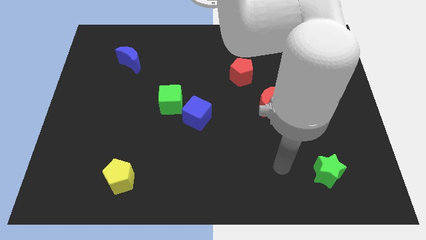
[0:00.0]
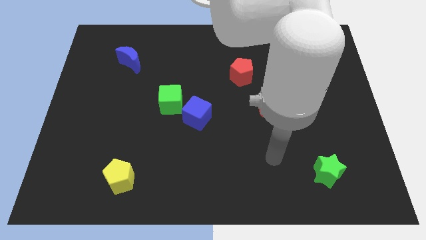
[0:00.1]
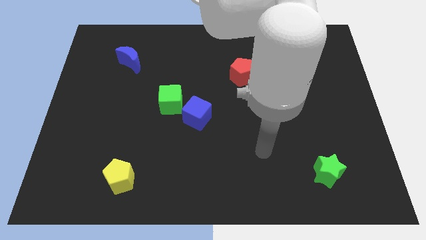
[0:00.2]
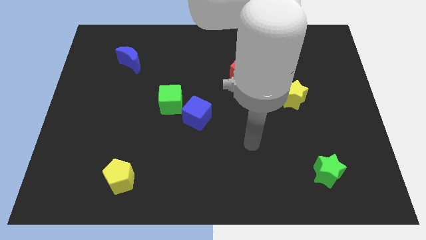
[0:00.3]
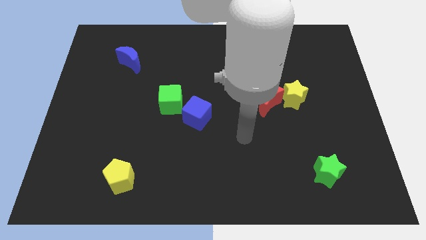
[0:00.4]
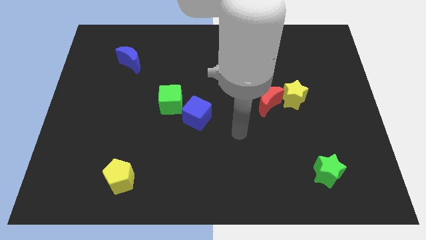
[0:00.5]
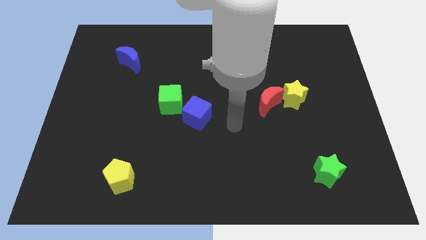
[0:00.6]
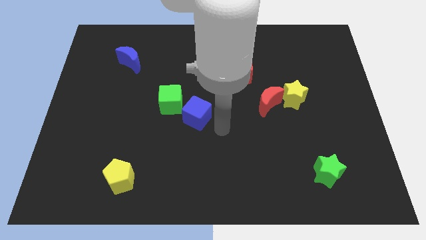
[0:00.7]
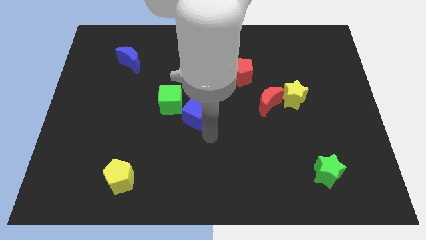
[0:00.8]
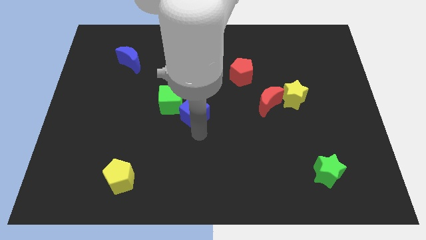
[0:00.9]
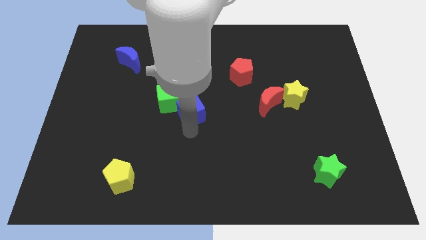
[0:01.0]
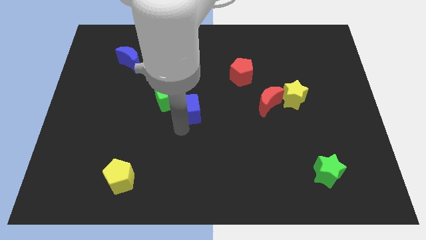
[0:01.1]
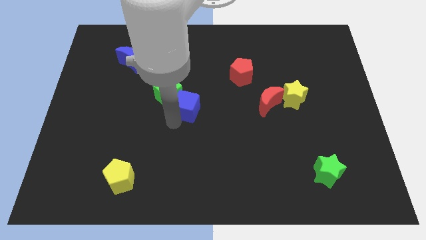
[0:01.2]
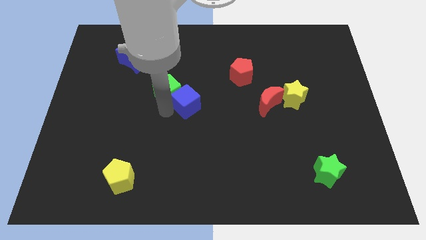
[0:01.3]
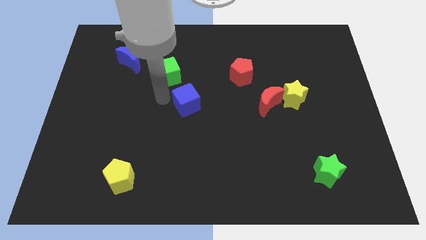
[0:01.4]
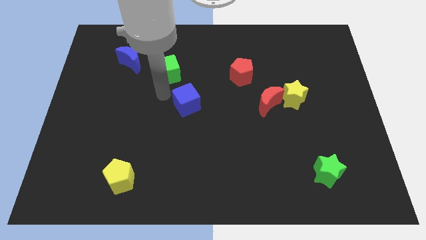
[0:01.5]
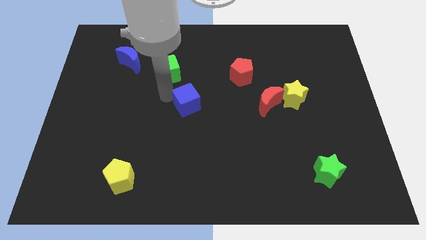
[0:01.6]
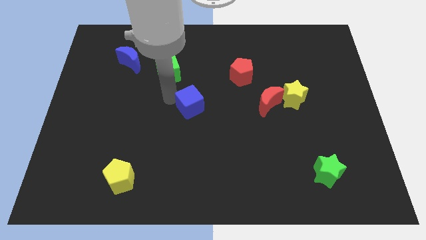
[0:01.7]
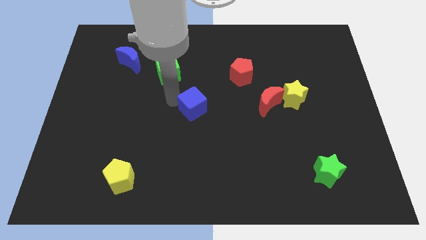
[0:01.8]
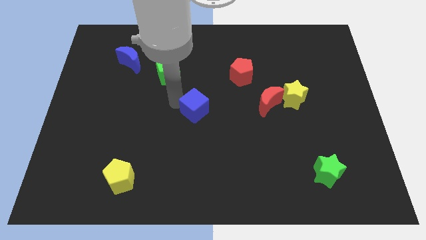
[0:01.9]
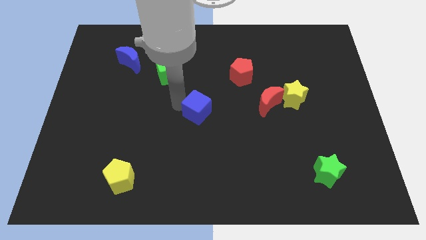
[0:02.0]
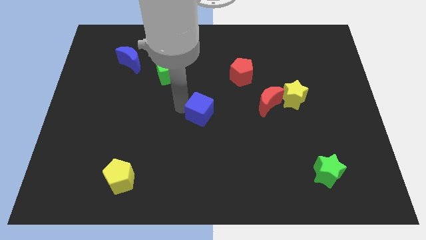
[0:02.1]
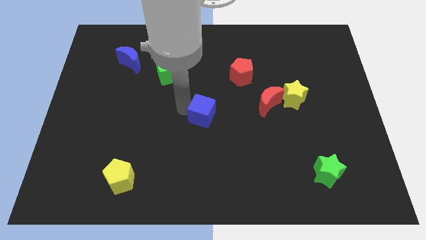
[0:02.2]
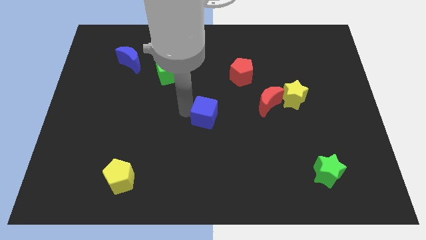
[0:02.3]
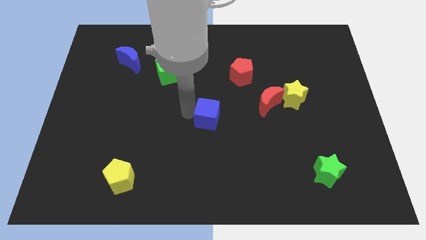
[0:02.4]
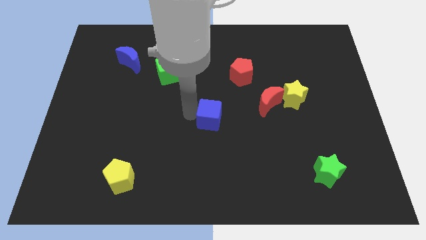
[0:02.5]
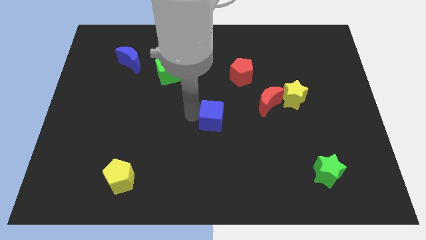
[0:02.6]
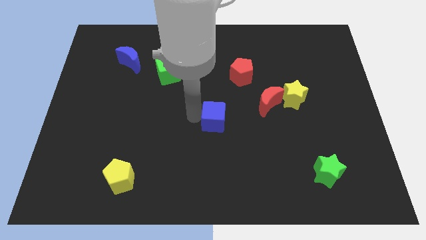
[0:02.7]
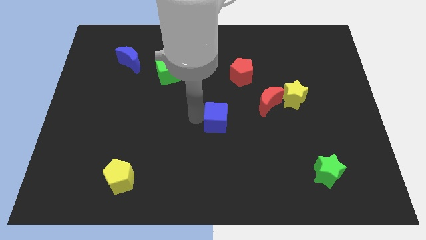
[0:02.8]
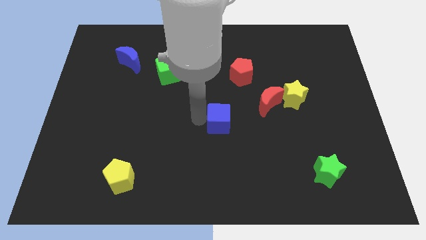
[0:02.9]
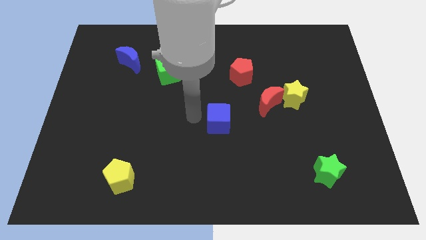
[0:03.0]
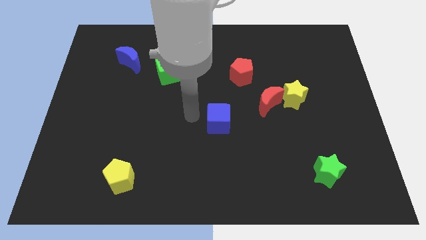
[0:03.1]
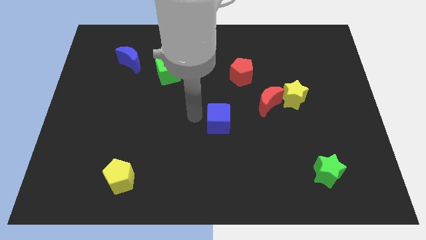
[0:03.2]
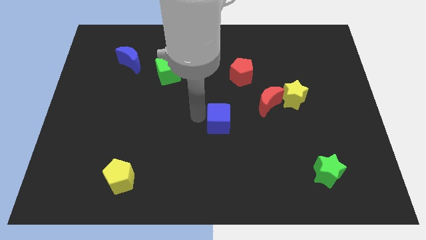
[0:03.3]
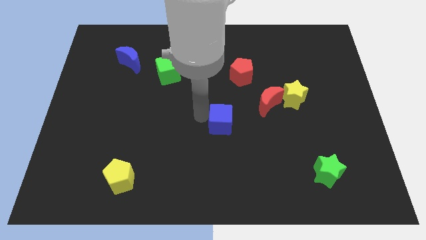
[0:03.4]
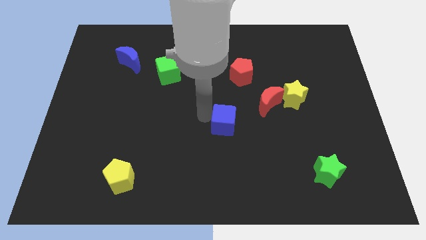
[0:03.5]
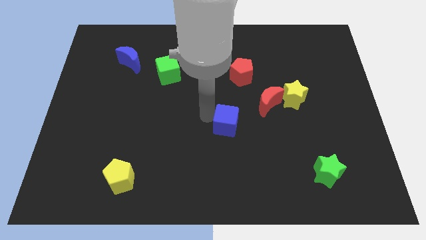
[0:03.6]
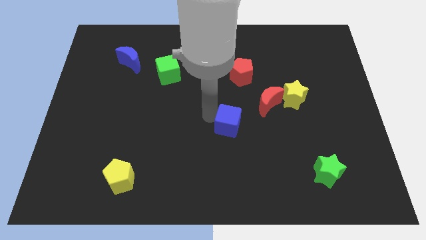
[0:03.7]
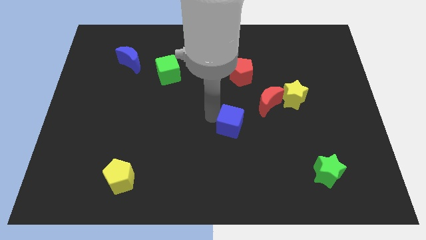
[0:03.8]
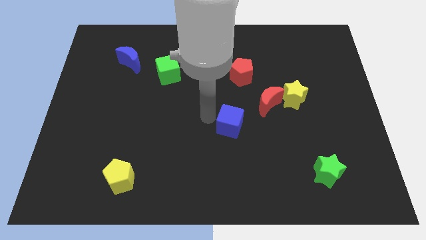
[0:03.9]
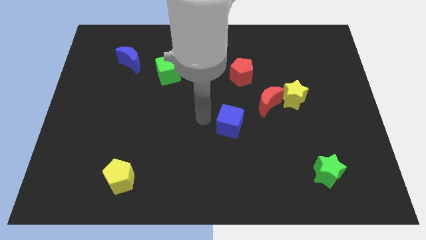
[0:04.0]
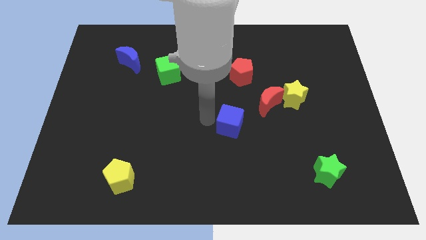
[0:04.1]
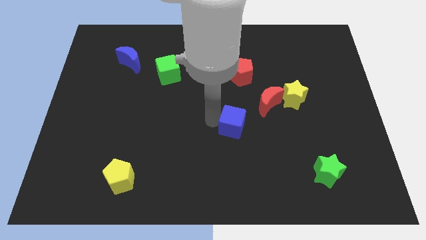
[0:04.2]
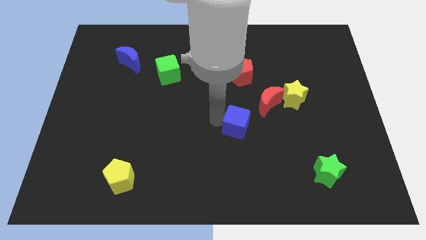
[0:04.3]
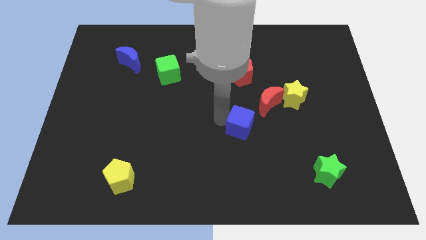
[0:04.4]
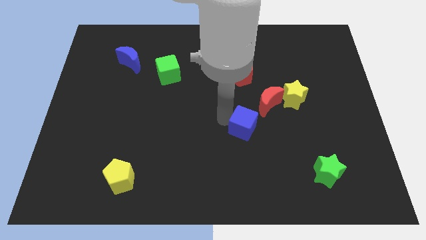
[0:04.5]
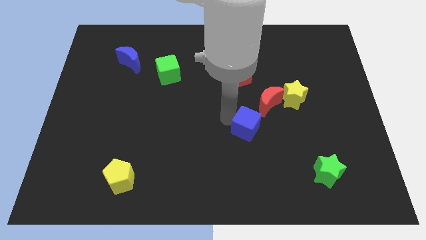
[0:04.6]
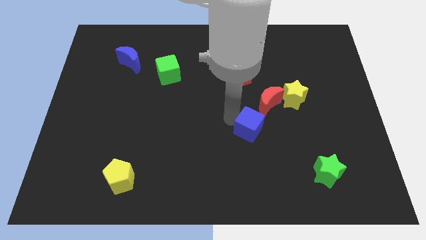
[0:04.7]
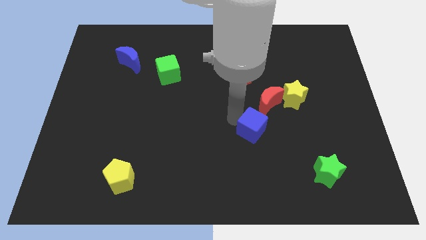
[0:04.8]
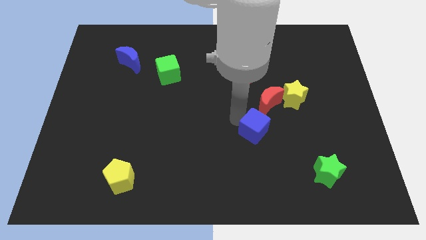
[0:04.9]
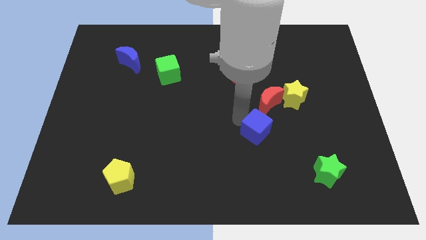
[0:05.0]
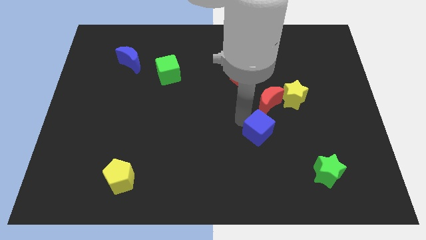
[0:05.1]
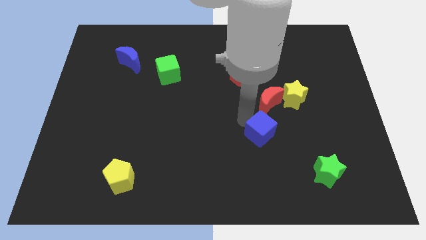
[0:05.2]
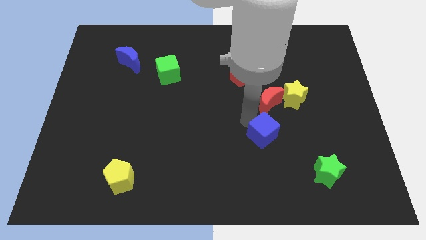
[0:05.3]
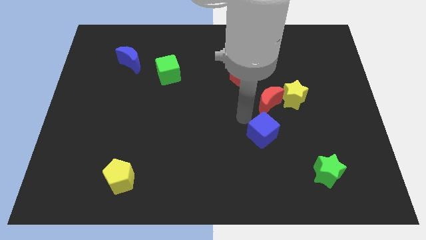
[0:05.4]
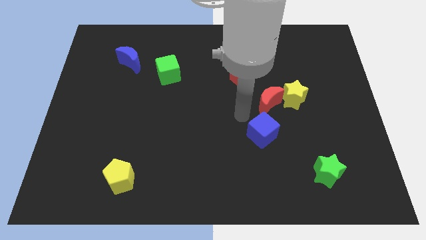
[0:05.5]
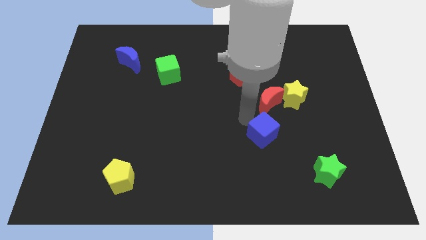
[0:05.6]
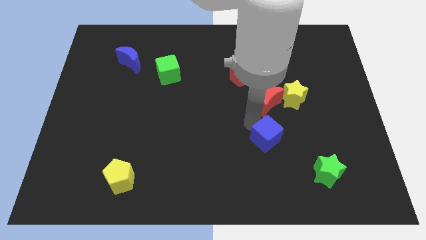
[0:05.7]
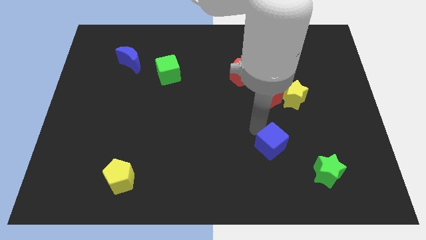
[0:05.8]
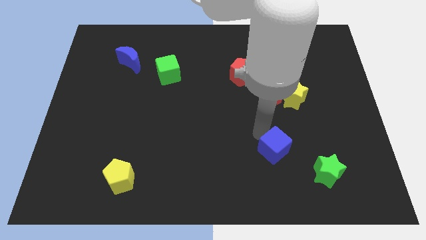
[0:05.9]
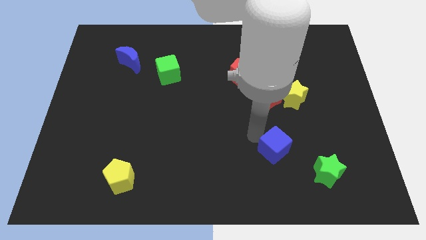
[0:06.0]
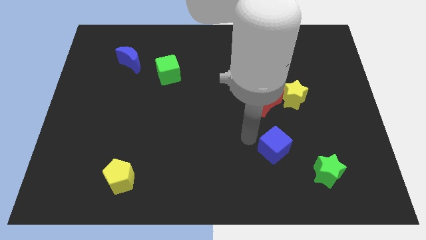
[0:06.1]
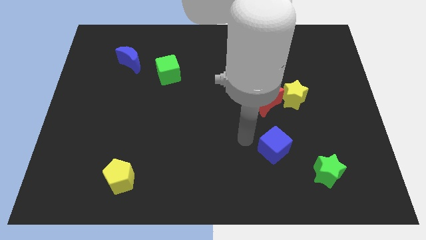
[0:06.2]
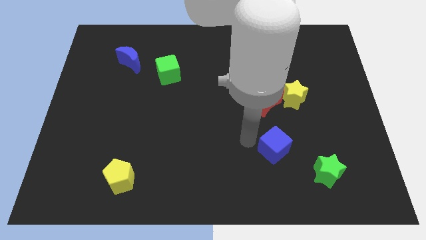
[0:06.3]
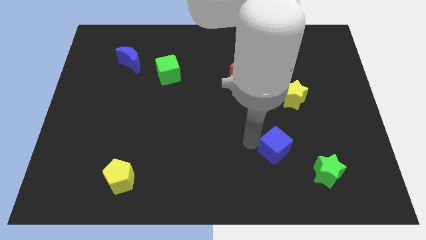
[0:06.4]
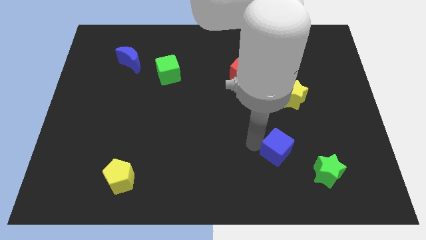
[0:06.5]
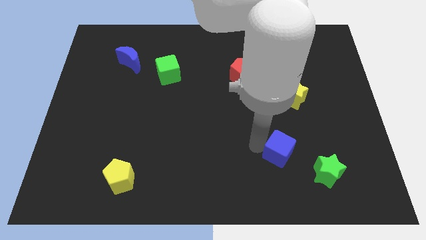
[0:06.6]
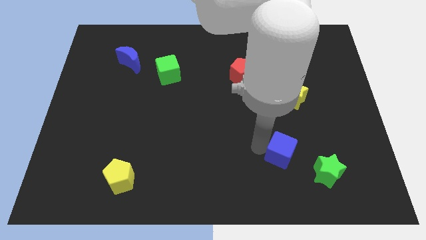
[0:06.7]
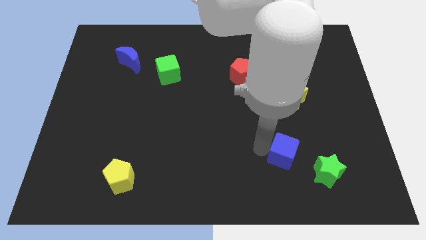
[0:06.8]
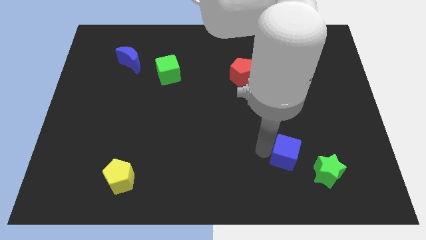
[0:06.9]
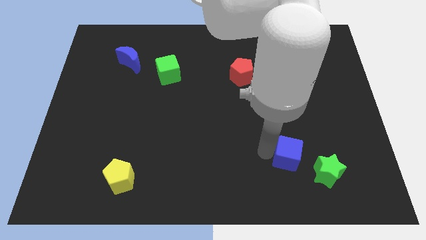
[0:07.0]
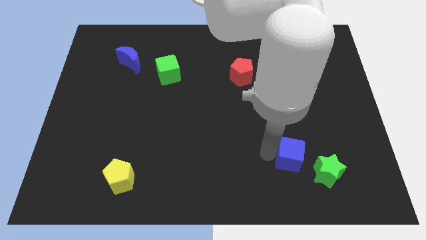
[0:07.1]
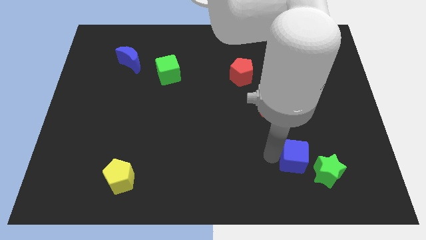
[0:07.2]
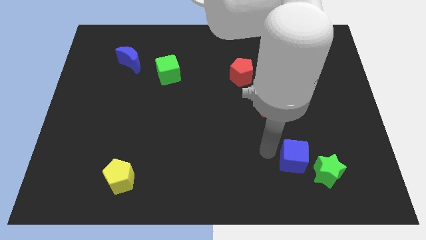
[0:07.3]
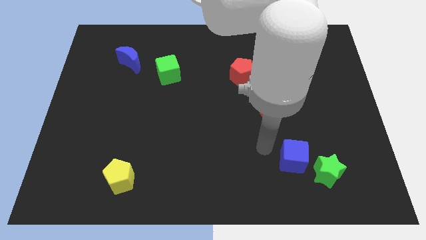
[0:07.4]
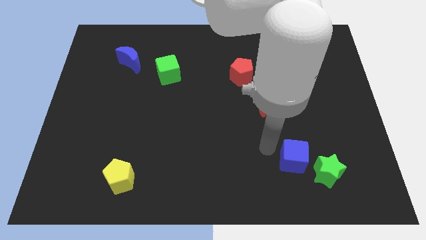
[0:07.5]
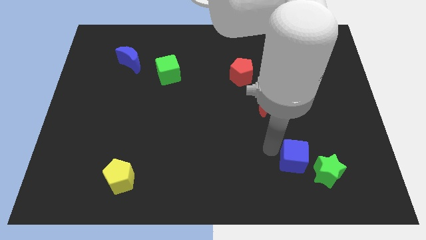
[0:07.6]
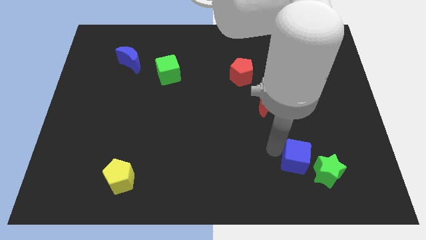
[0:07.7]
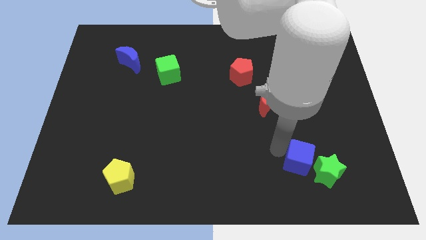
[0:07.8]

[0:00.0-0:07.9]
put the blue cube to the green star
